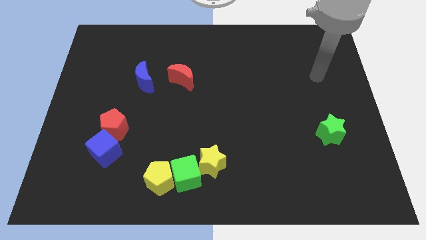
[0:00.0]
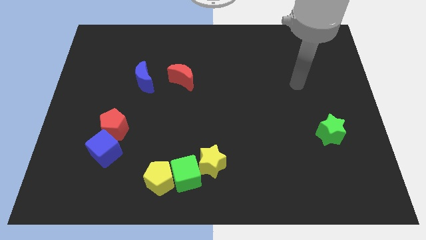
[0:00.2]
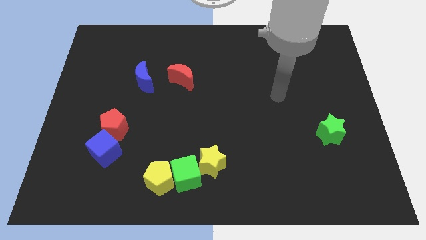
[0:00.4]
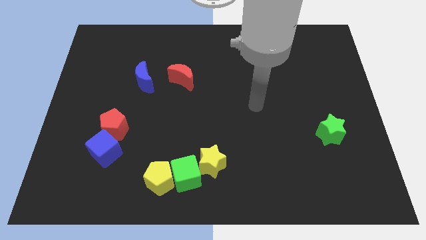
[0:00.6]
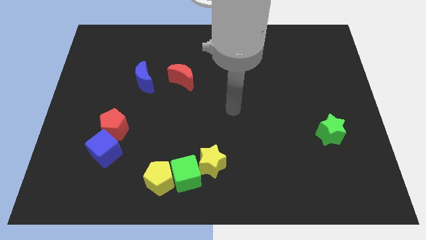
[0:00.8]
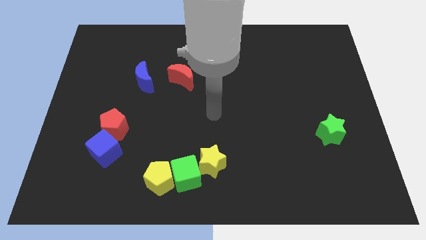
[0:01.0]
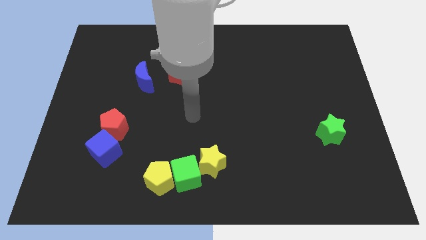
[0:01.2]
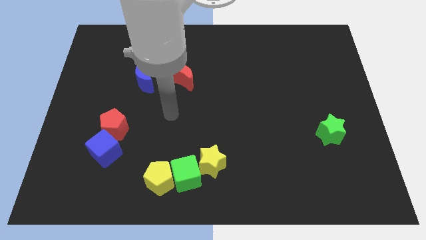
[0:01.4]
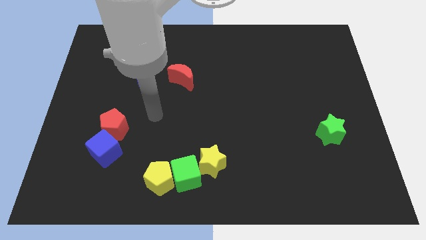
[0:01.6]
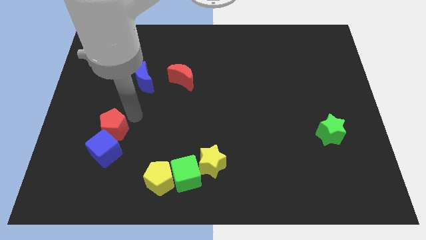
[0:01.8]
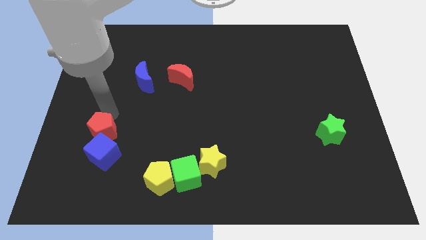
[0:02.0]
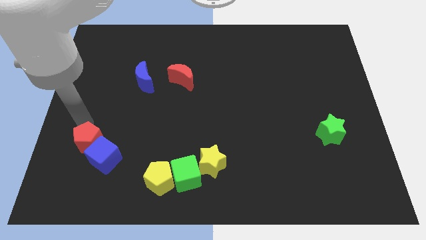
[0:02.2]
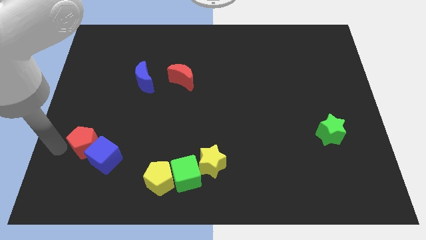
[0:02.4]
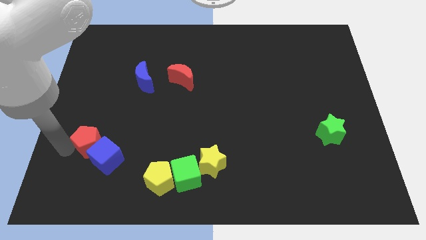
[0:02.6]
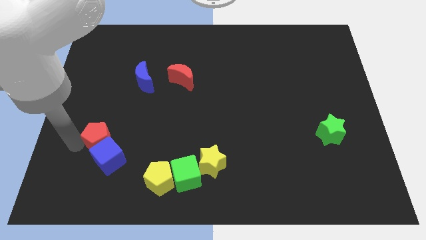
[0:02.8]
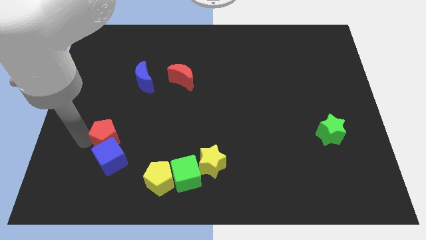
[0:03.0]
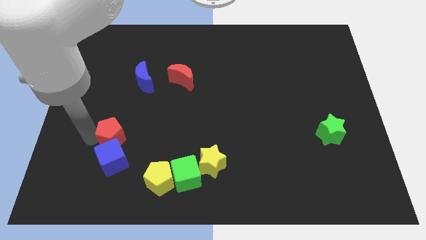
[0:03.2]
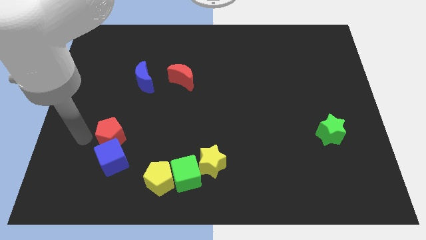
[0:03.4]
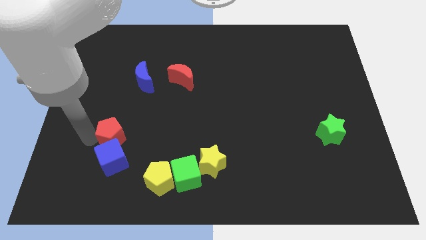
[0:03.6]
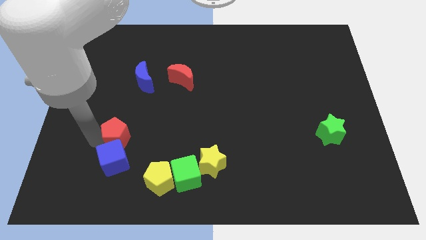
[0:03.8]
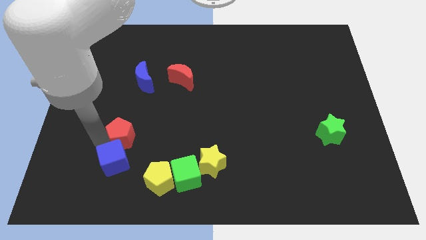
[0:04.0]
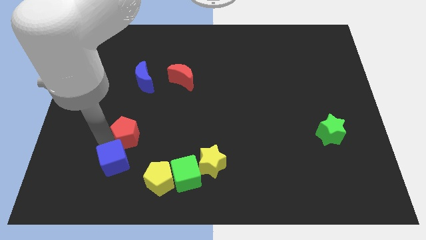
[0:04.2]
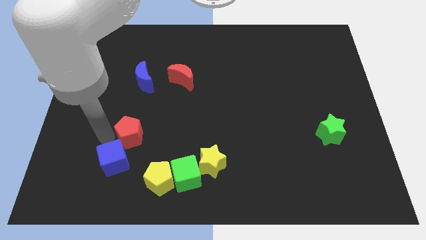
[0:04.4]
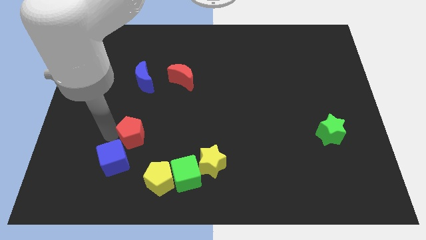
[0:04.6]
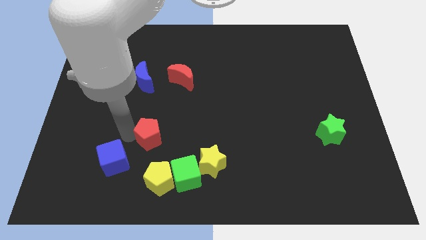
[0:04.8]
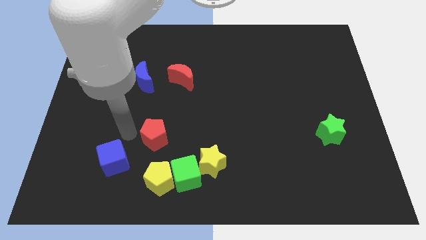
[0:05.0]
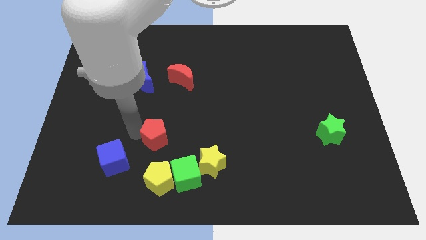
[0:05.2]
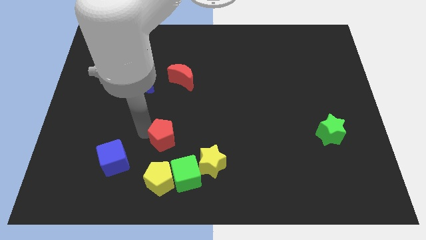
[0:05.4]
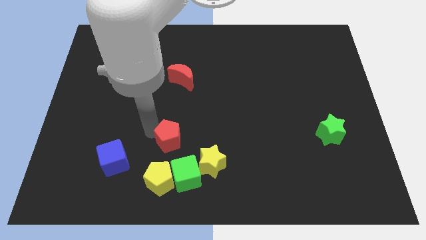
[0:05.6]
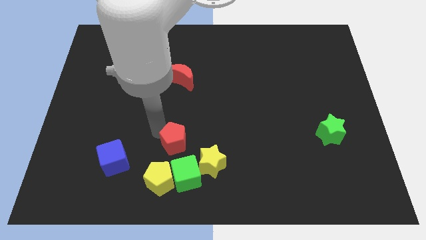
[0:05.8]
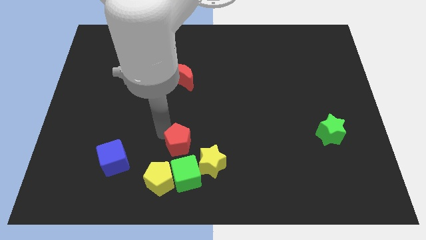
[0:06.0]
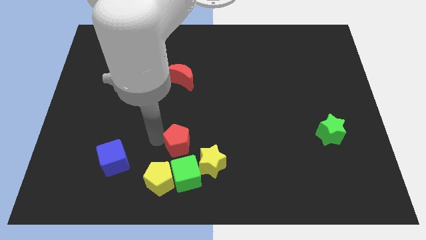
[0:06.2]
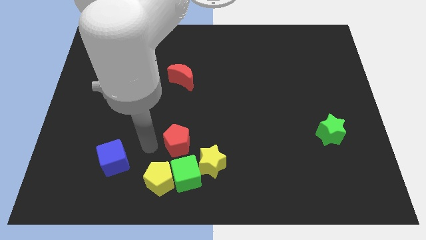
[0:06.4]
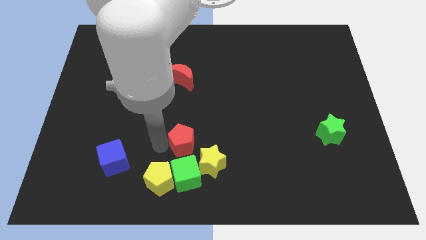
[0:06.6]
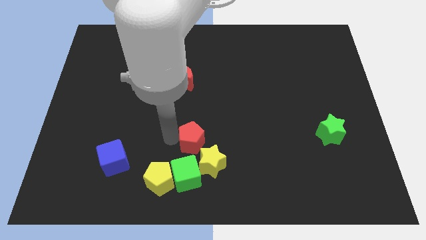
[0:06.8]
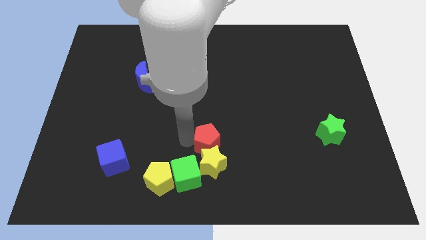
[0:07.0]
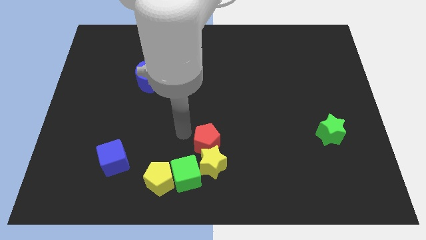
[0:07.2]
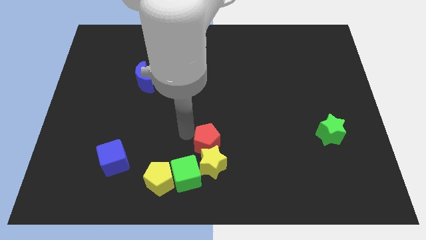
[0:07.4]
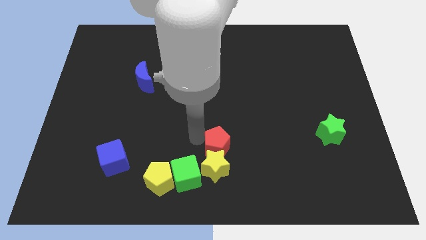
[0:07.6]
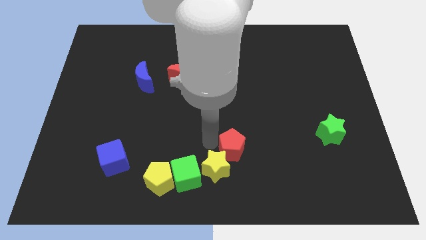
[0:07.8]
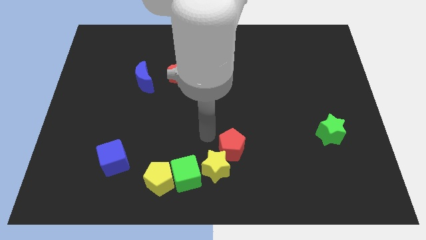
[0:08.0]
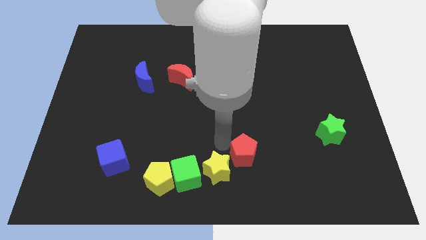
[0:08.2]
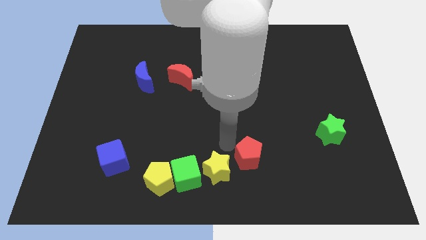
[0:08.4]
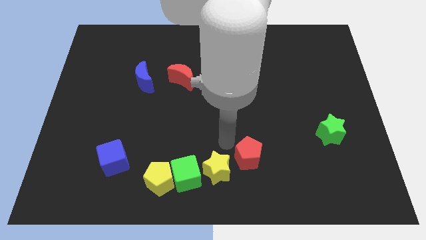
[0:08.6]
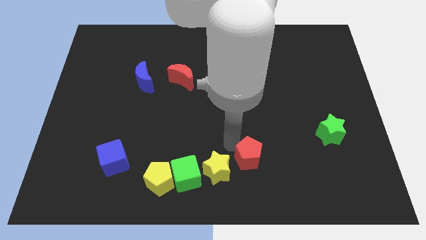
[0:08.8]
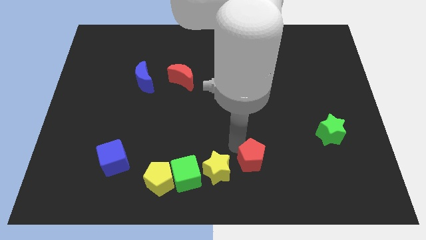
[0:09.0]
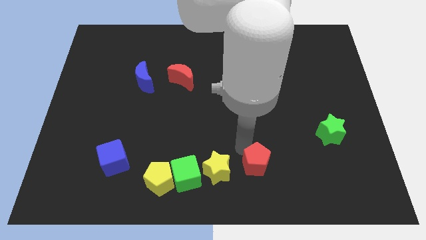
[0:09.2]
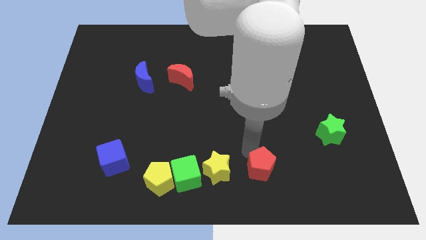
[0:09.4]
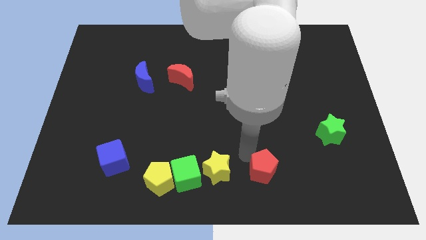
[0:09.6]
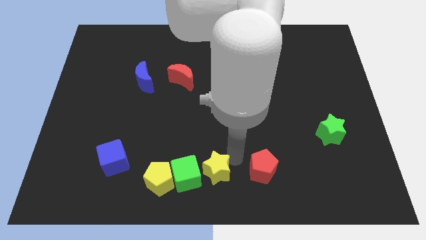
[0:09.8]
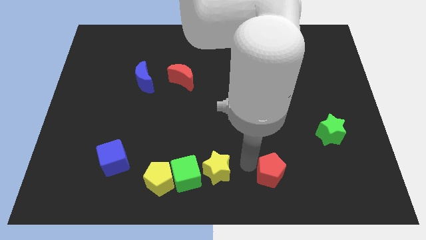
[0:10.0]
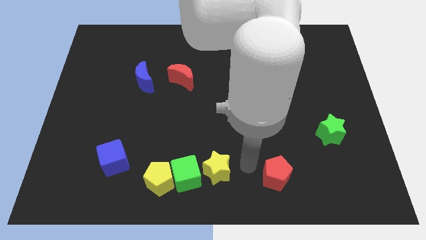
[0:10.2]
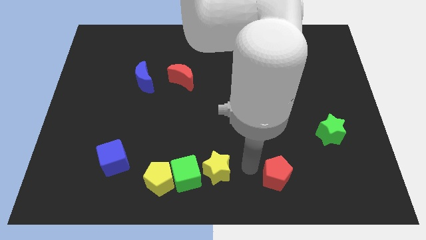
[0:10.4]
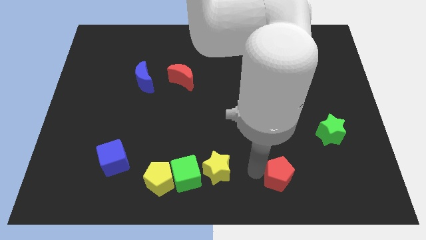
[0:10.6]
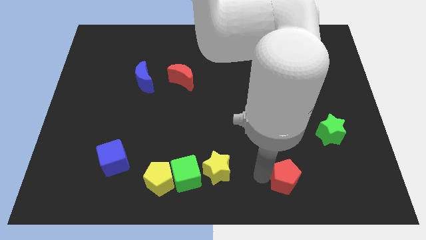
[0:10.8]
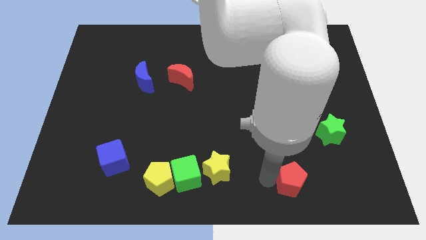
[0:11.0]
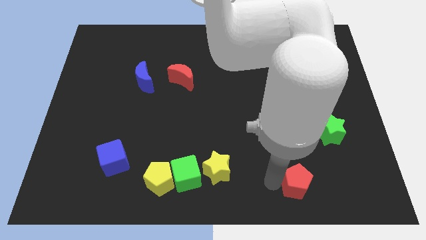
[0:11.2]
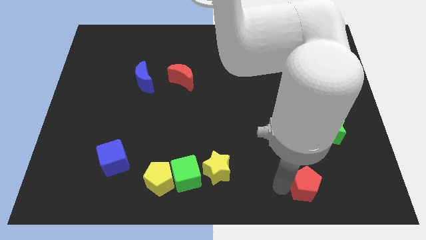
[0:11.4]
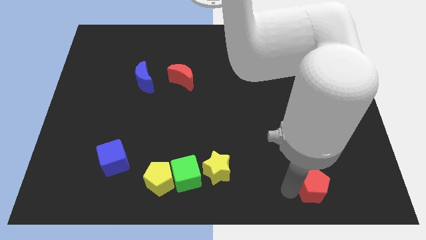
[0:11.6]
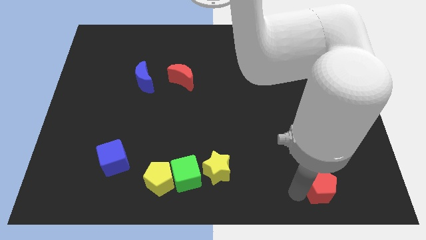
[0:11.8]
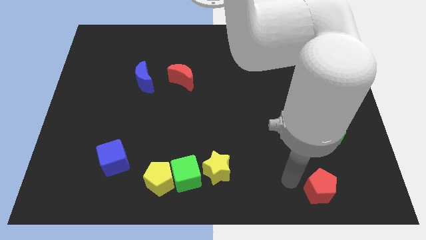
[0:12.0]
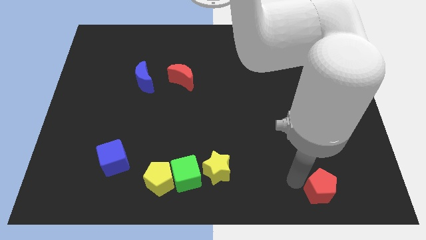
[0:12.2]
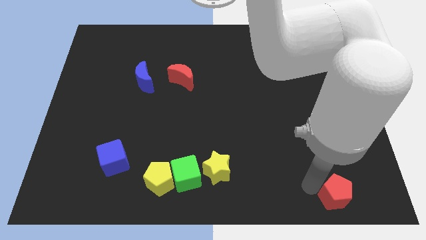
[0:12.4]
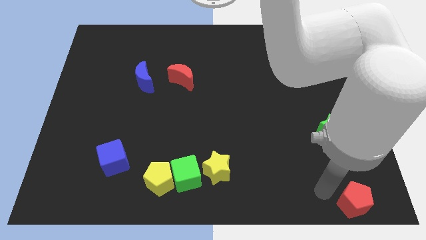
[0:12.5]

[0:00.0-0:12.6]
put the red pentagon to the lower right corner
